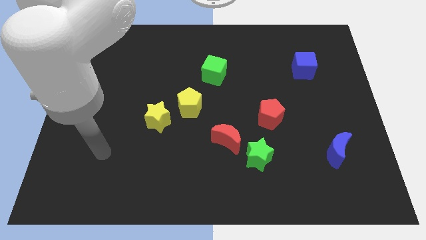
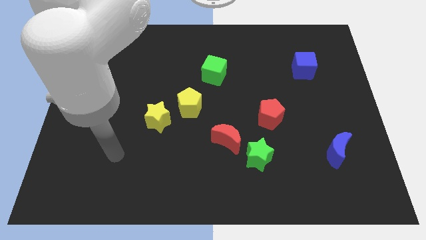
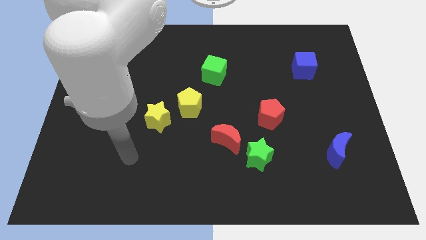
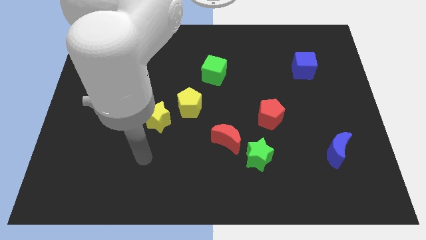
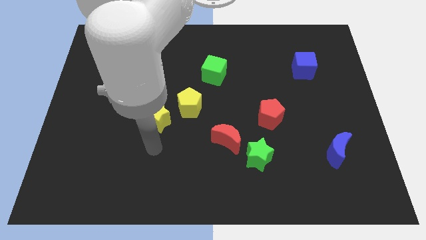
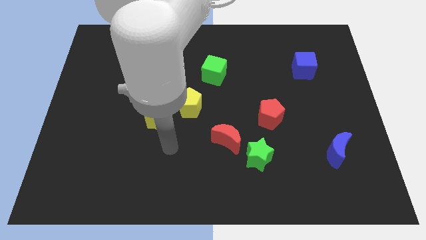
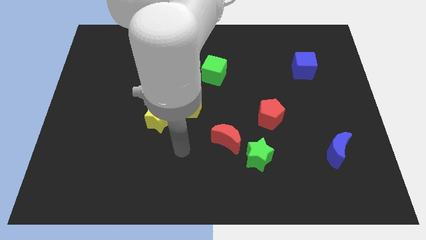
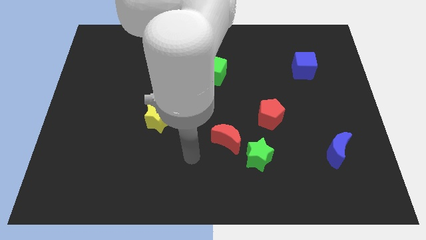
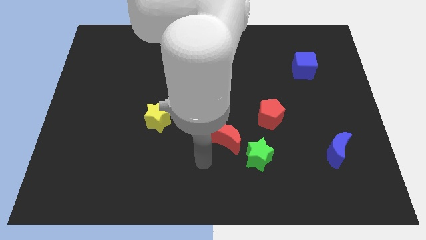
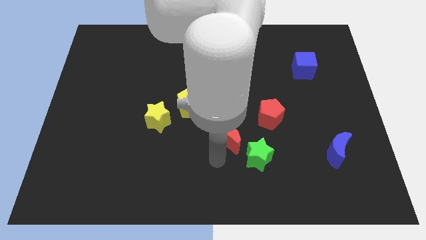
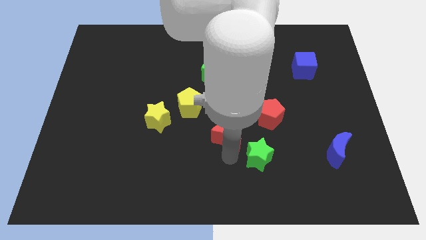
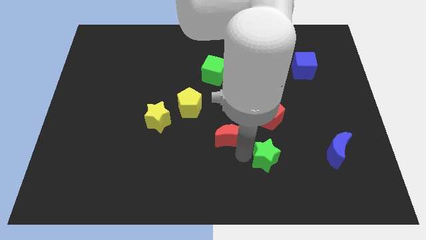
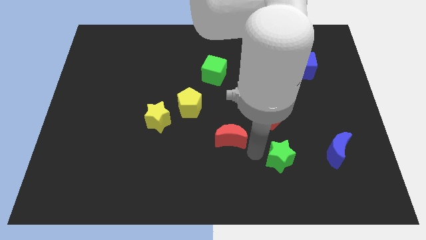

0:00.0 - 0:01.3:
separate the red moon from the green star

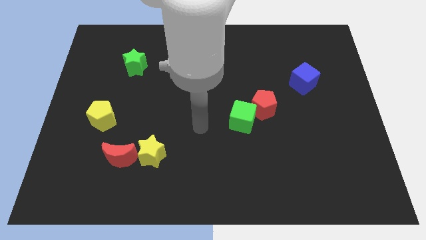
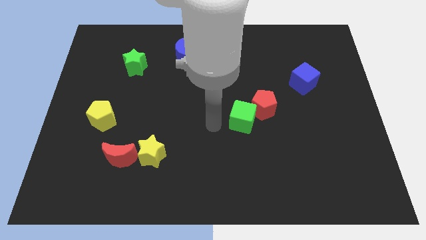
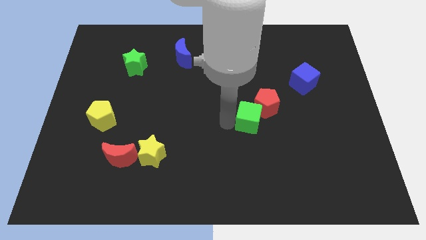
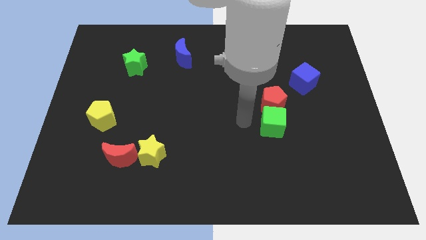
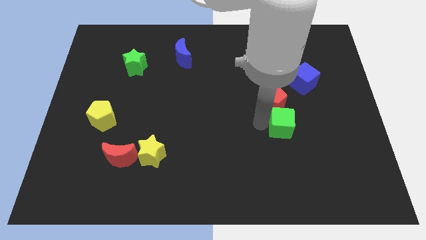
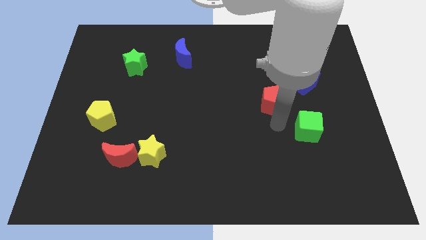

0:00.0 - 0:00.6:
pull the red pentagon apart from the green cube

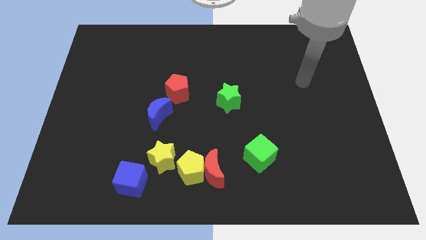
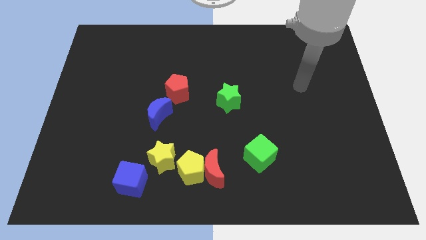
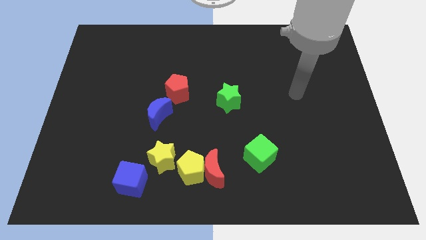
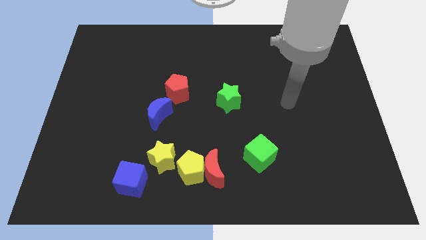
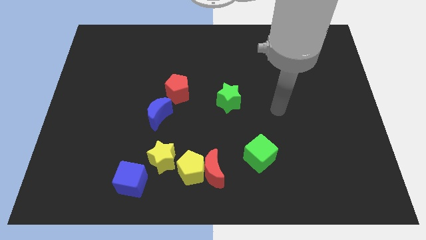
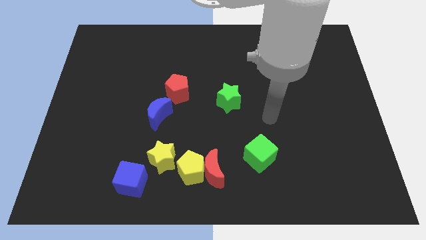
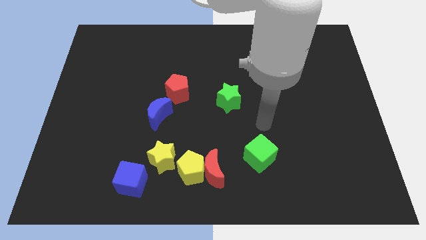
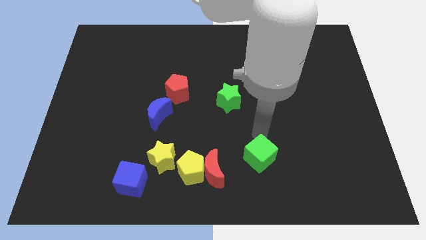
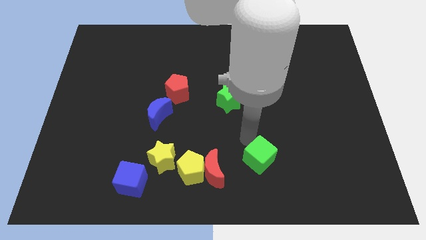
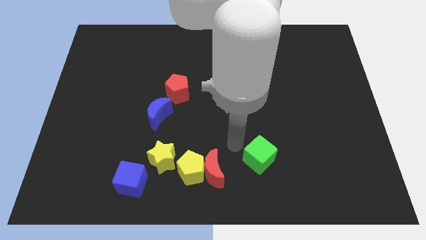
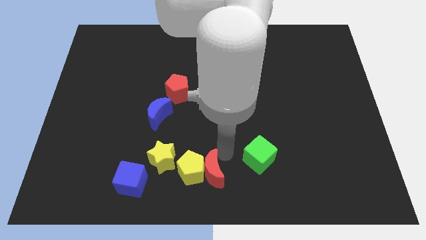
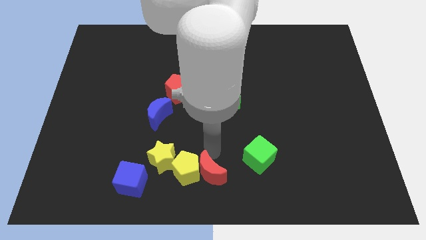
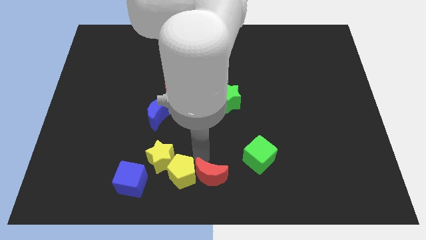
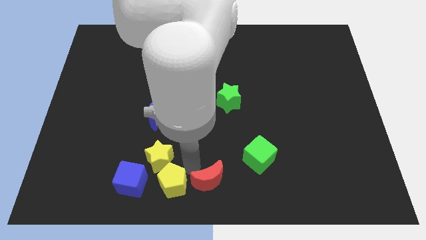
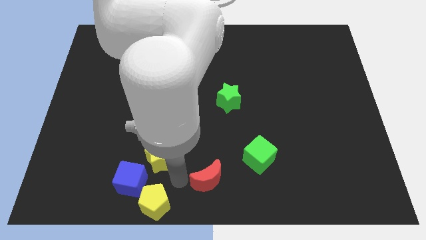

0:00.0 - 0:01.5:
pull the red moon apart from the yellow pentagon

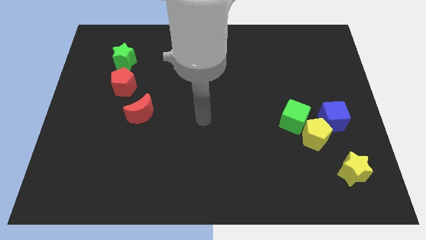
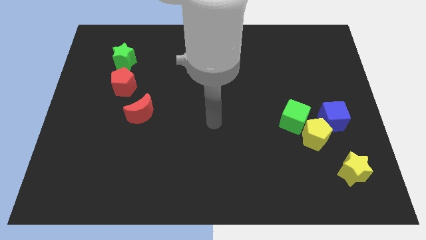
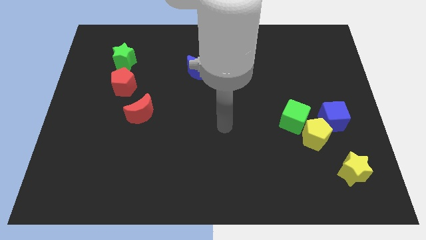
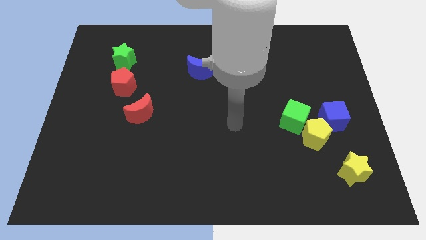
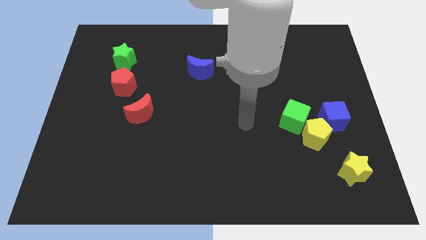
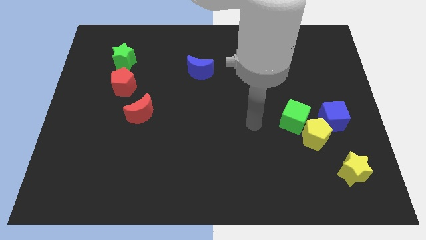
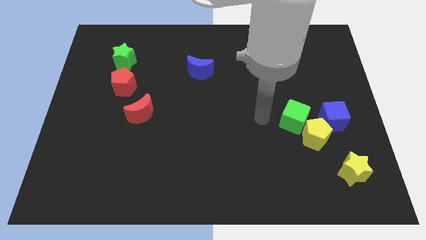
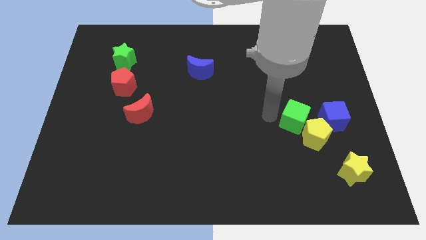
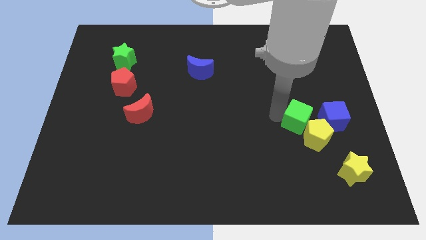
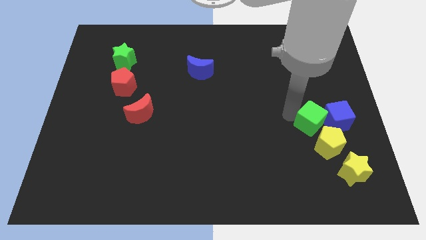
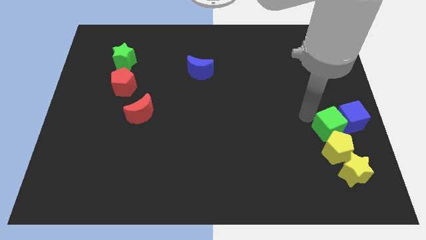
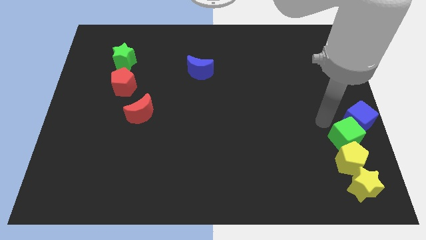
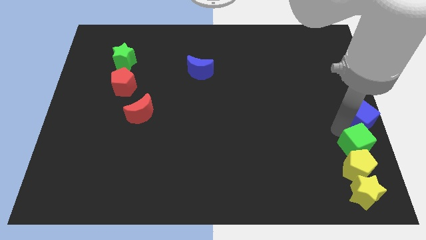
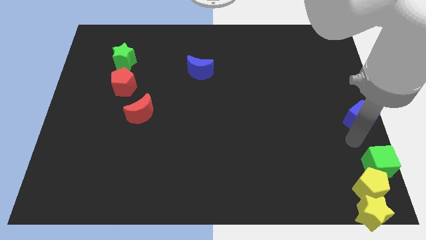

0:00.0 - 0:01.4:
move the yellow pentagon away from the green cube and blue cube

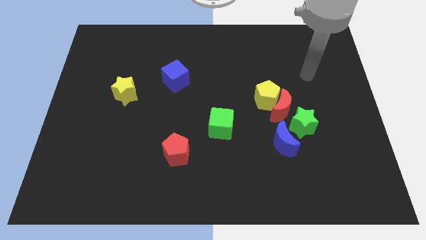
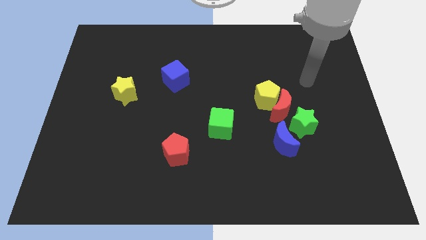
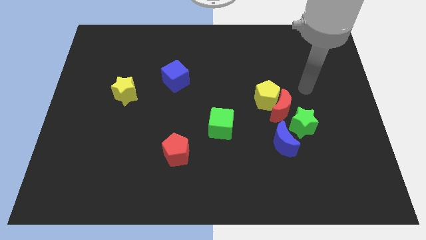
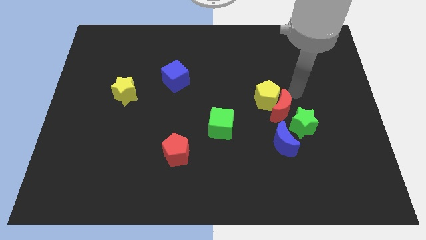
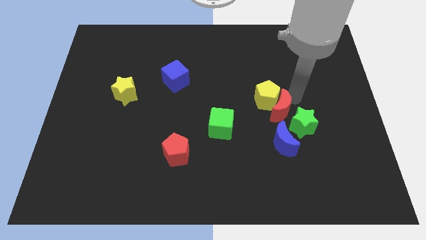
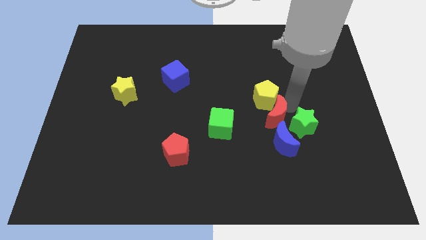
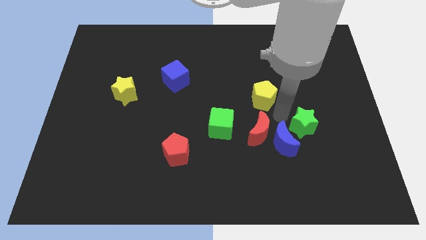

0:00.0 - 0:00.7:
pull the yellow pentagon apart from the red moon

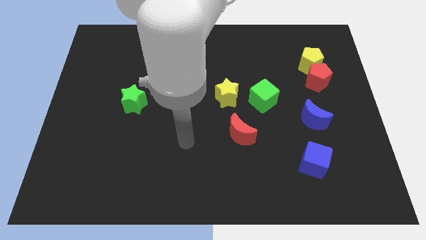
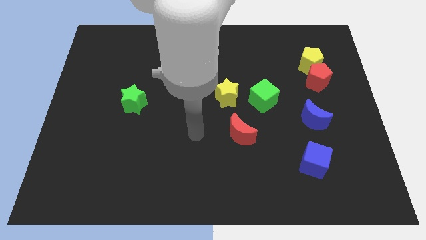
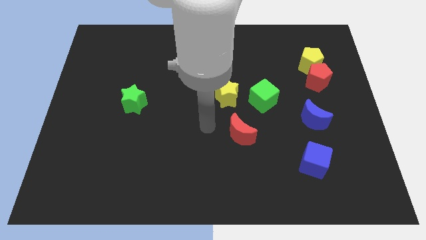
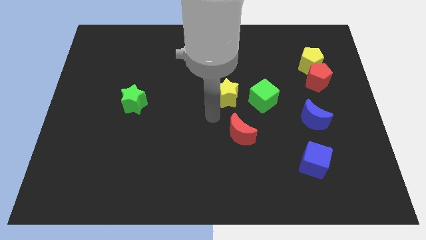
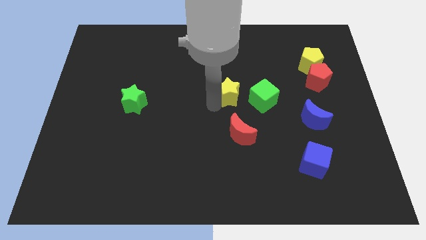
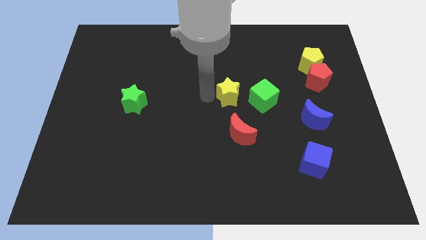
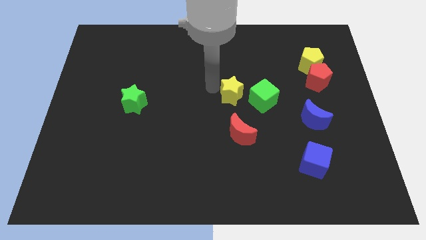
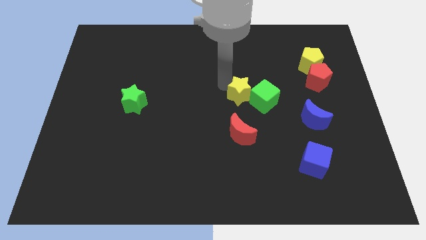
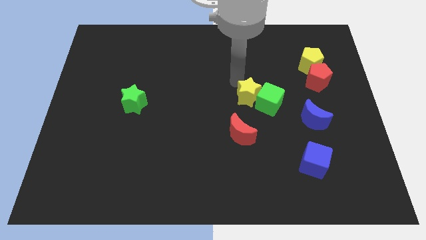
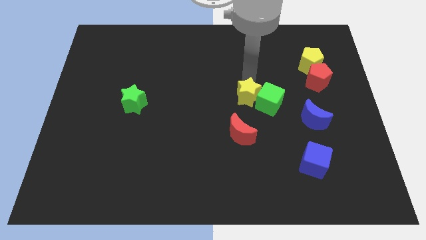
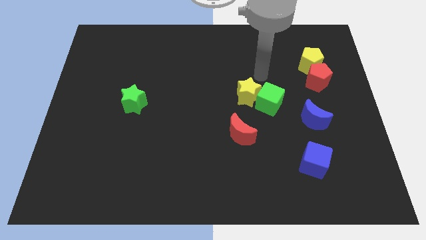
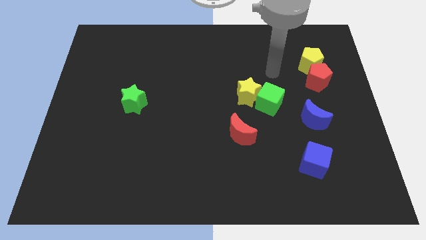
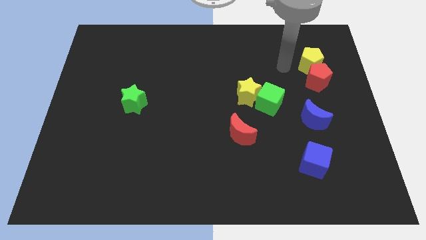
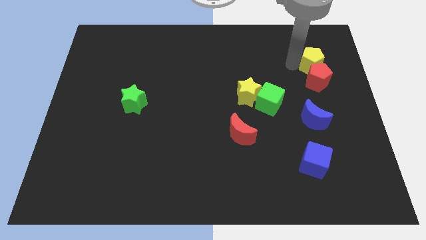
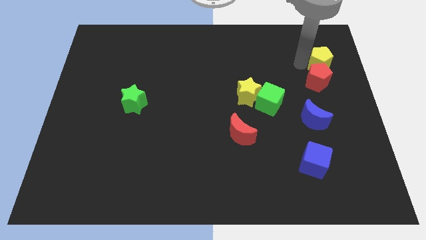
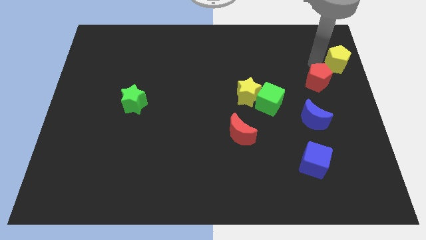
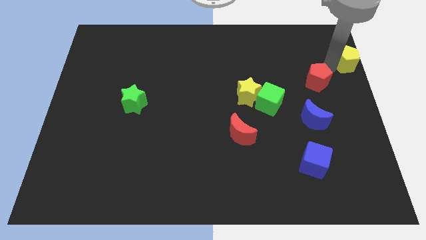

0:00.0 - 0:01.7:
separate the red pentagon from the yellow pentagon

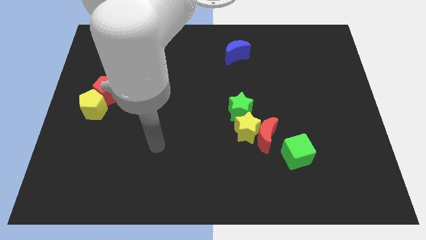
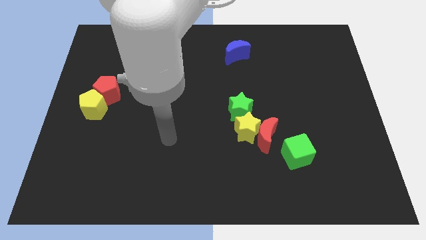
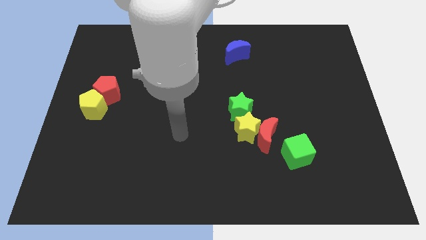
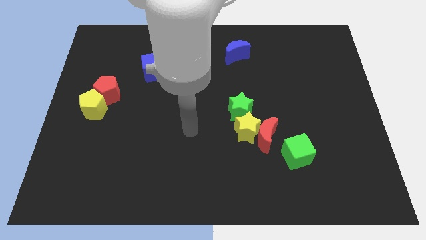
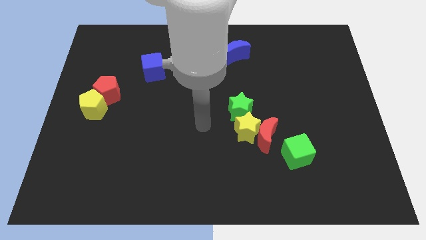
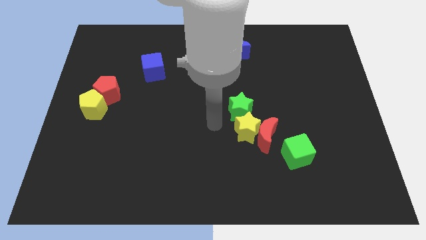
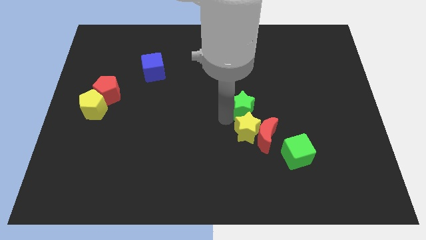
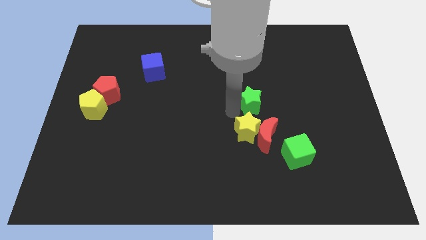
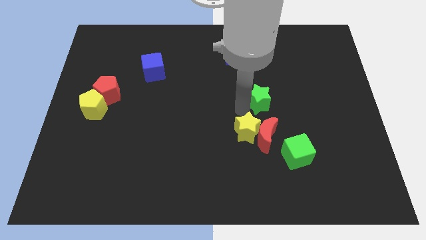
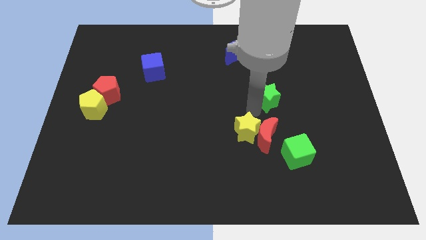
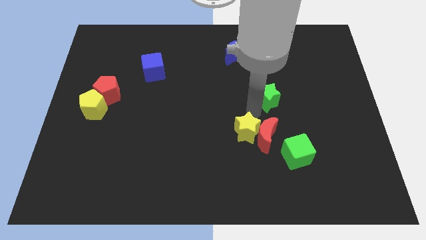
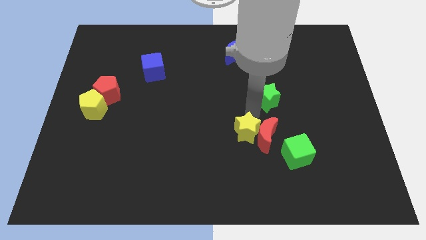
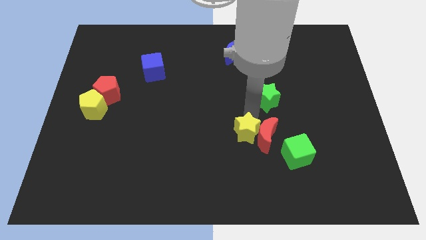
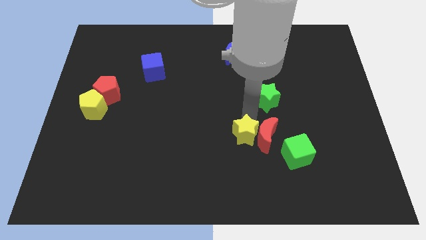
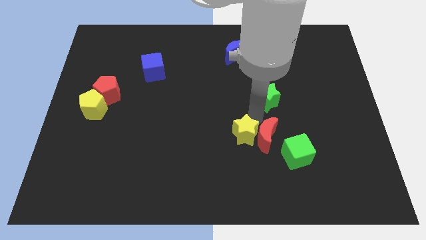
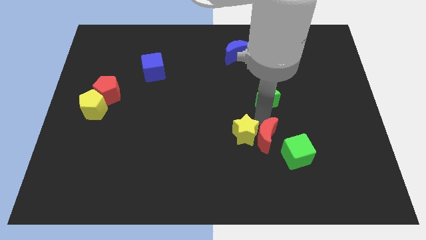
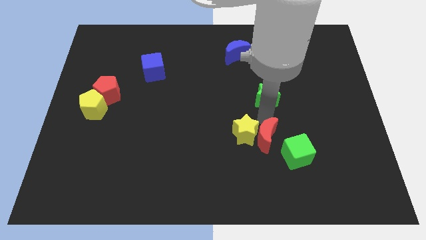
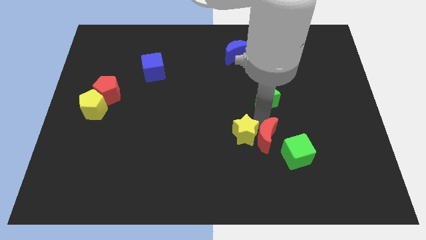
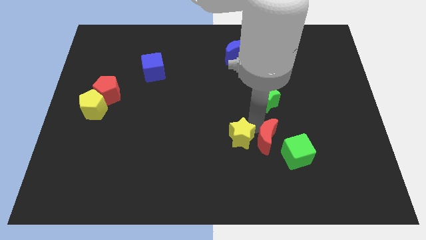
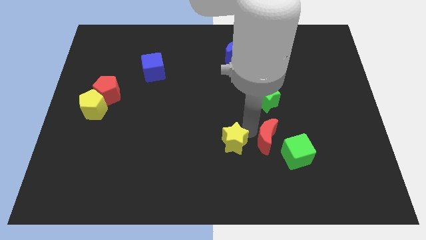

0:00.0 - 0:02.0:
move the yellow star away from the red moon and green star

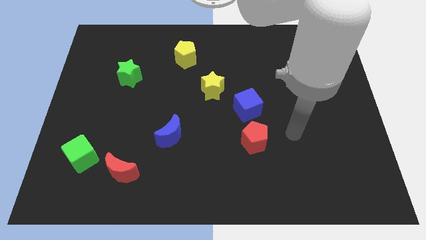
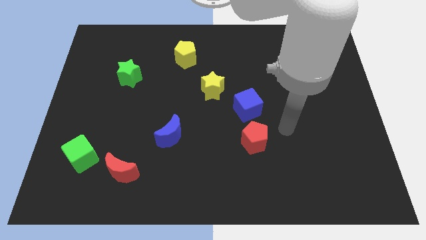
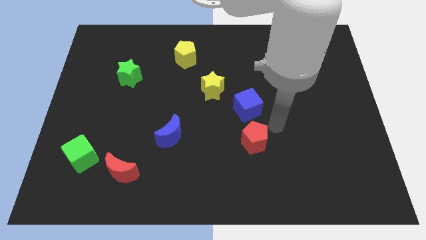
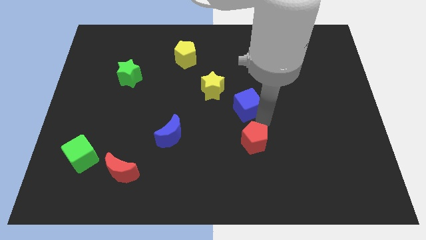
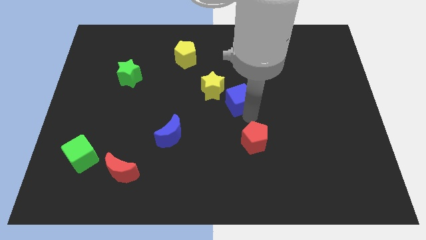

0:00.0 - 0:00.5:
move the red pentagon away from the blue cube
